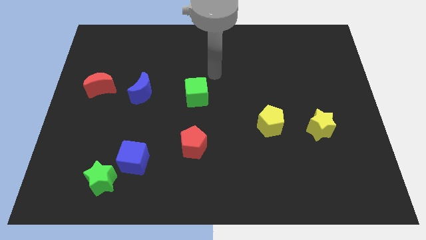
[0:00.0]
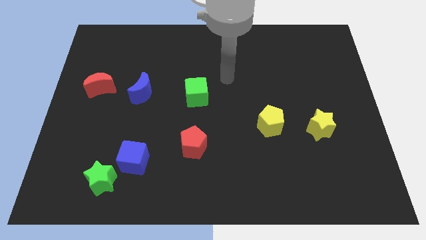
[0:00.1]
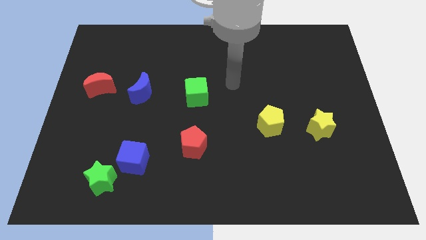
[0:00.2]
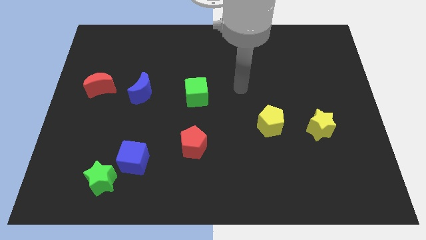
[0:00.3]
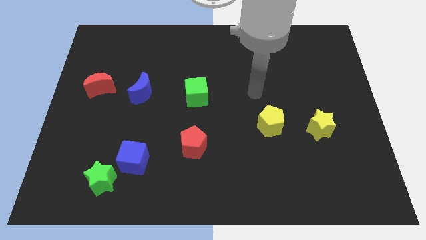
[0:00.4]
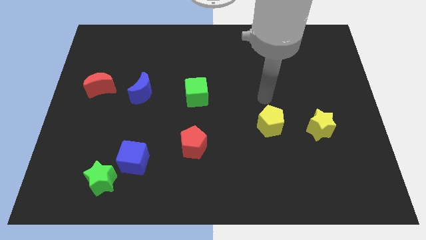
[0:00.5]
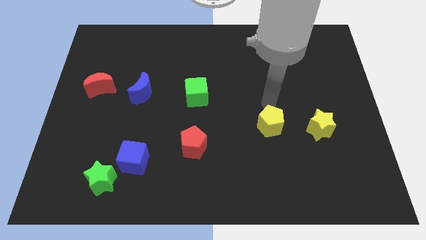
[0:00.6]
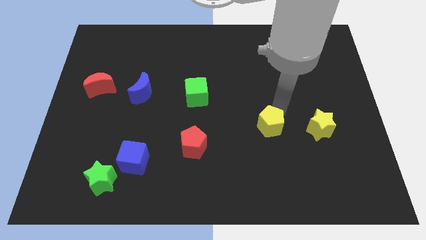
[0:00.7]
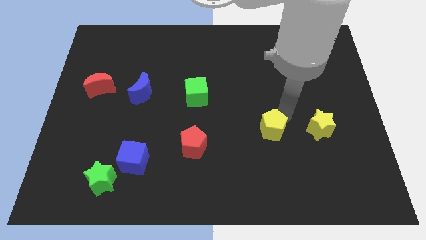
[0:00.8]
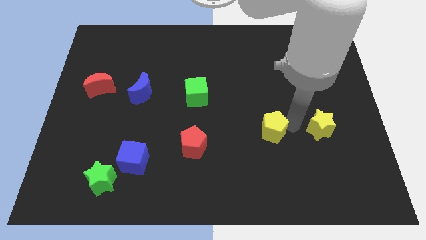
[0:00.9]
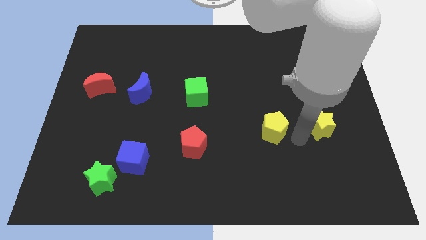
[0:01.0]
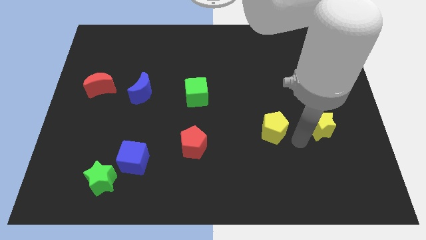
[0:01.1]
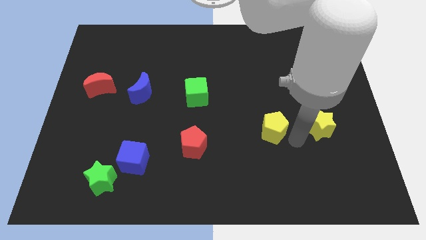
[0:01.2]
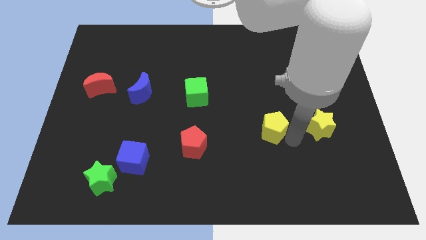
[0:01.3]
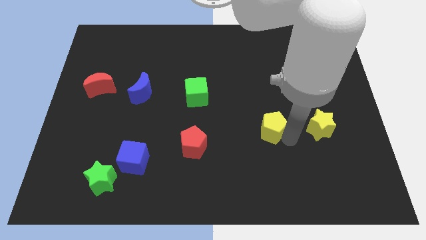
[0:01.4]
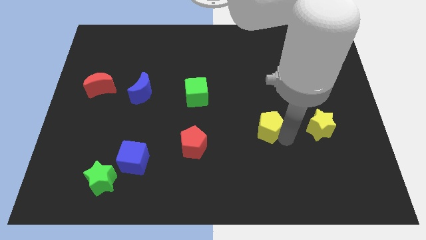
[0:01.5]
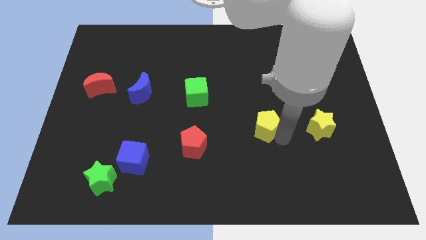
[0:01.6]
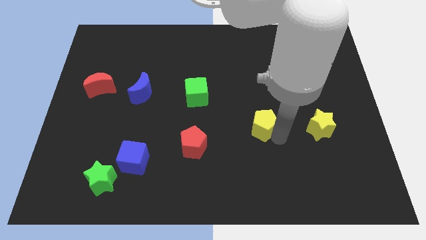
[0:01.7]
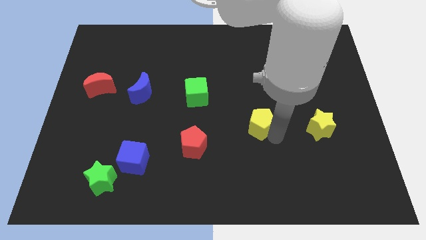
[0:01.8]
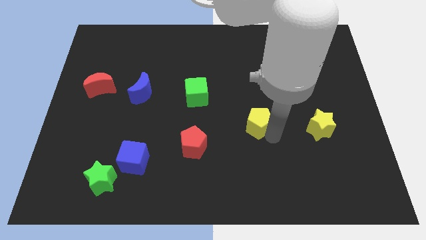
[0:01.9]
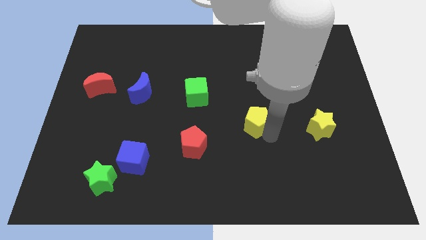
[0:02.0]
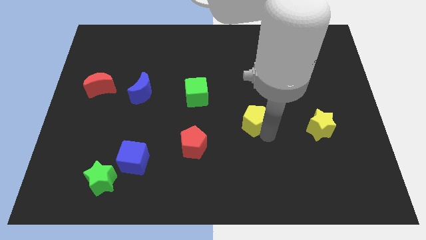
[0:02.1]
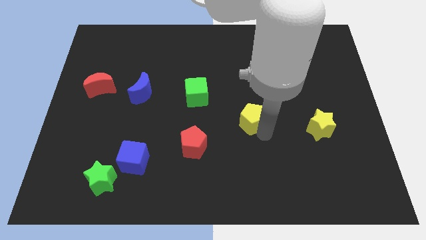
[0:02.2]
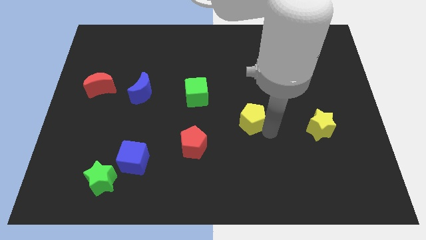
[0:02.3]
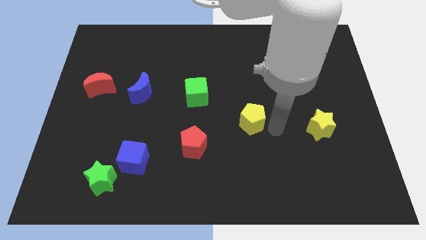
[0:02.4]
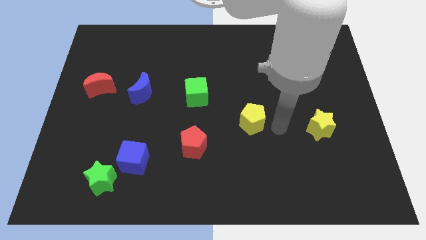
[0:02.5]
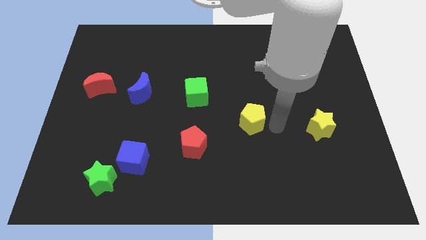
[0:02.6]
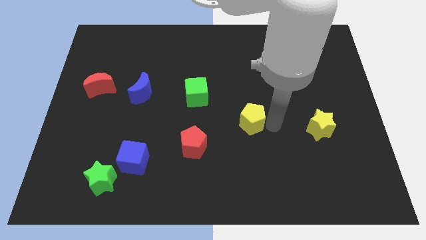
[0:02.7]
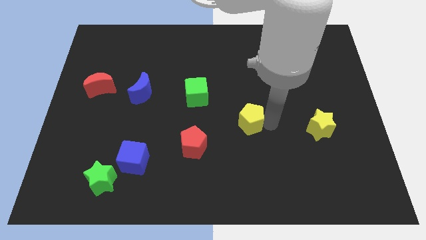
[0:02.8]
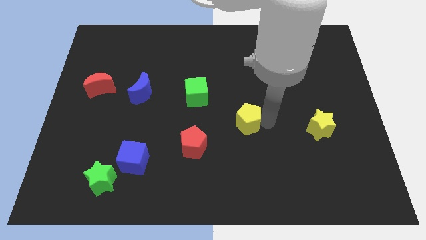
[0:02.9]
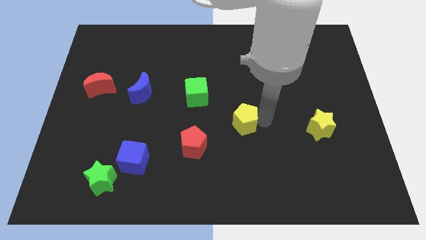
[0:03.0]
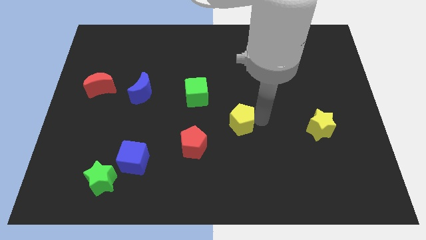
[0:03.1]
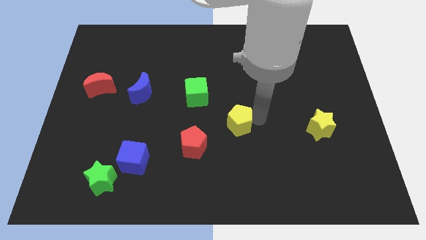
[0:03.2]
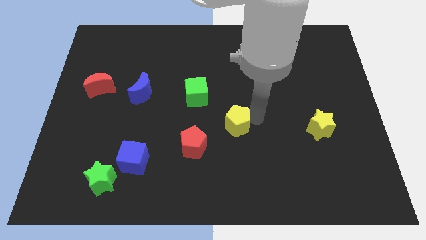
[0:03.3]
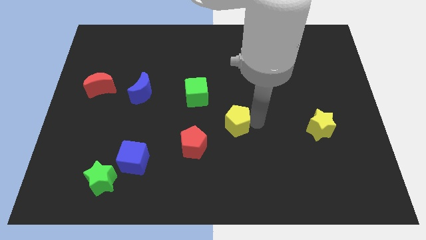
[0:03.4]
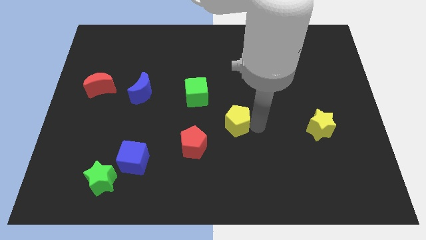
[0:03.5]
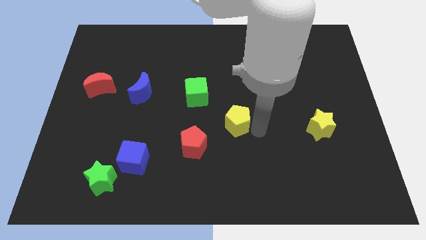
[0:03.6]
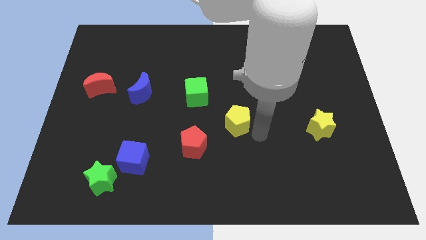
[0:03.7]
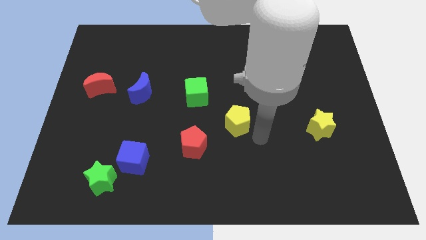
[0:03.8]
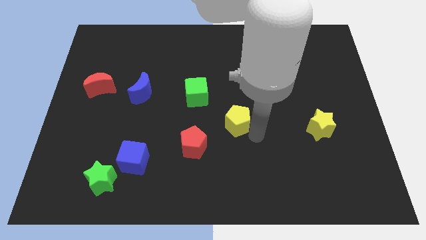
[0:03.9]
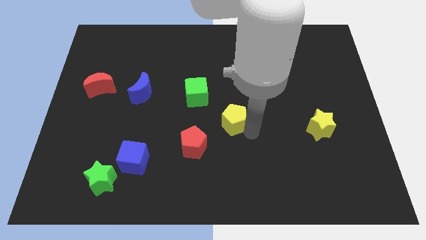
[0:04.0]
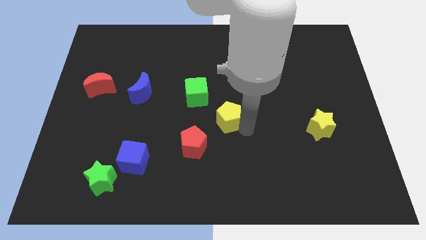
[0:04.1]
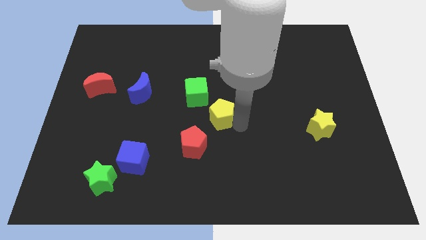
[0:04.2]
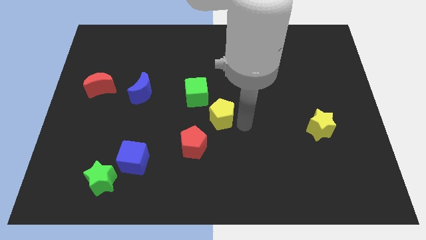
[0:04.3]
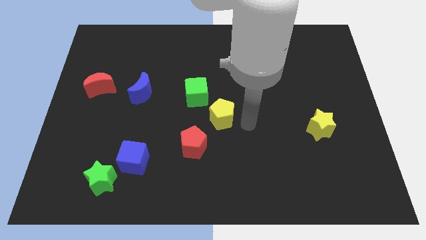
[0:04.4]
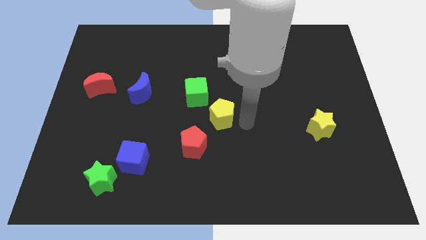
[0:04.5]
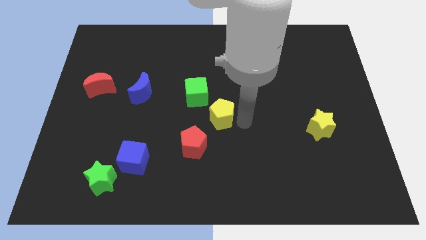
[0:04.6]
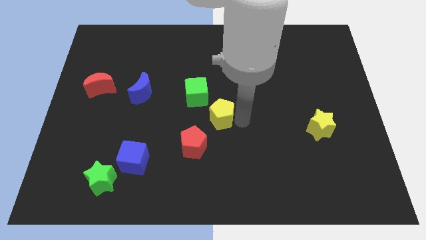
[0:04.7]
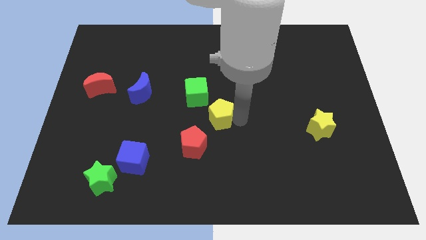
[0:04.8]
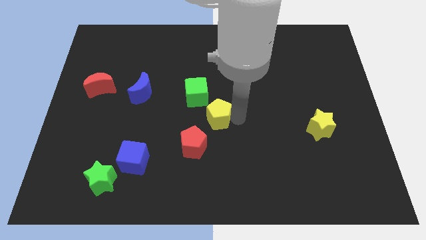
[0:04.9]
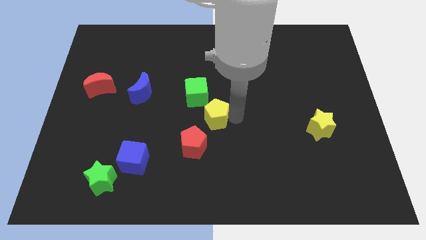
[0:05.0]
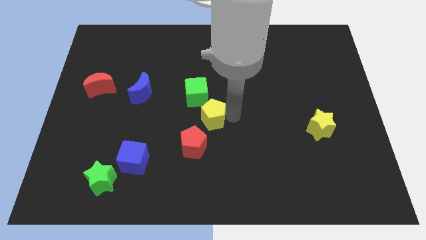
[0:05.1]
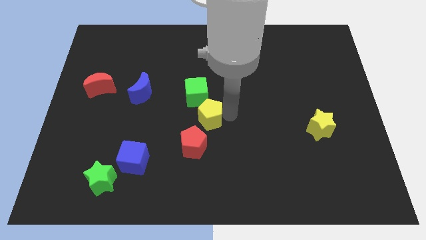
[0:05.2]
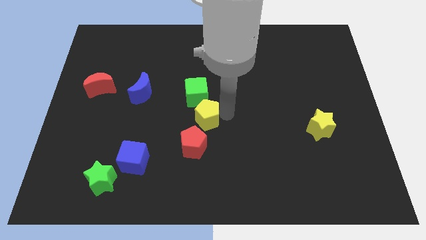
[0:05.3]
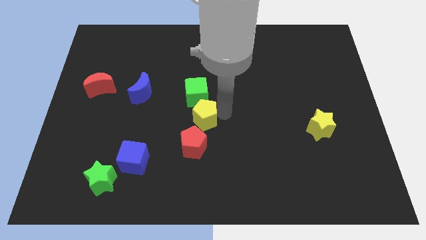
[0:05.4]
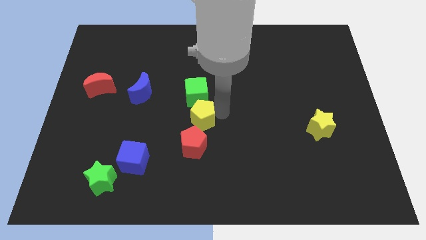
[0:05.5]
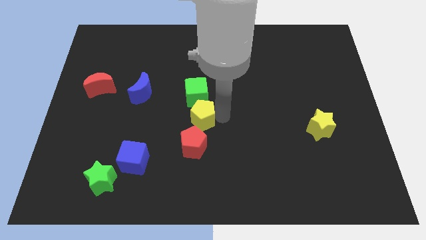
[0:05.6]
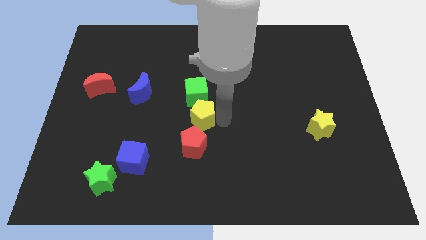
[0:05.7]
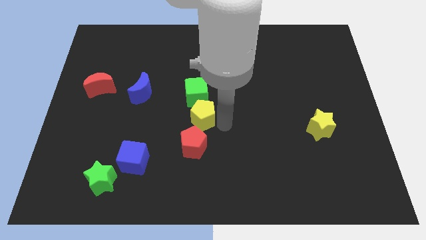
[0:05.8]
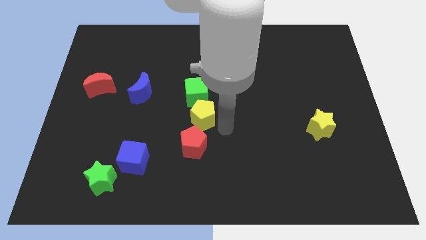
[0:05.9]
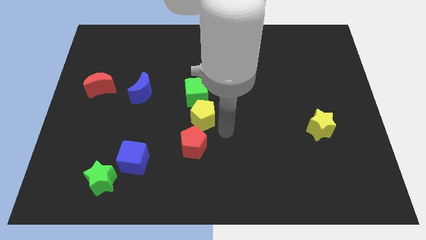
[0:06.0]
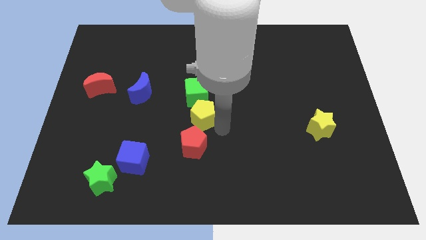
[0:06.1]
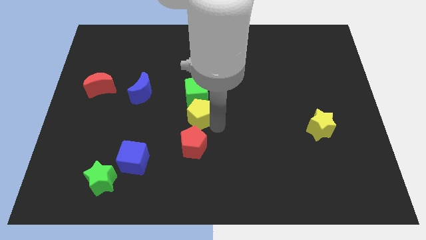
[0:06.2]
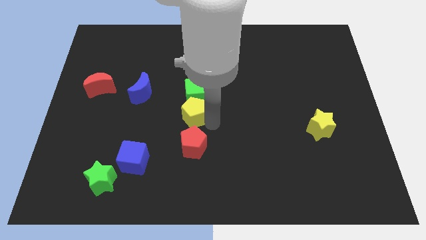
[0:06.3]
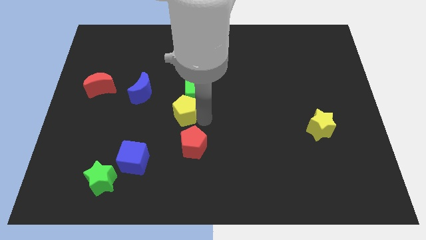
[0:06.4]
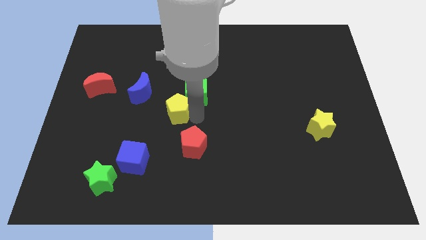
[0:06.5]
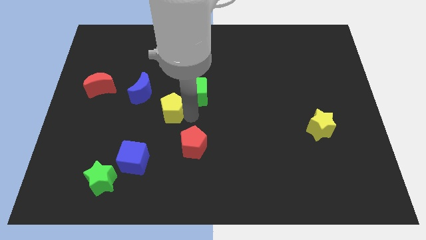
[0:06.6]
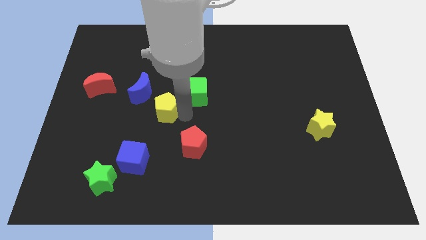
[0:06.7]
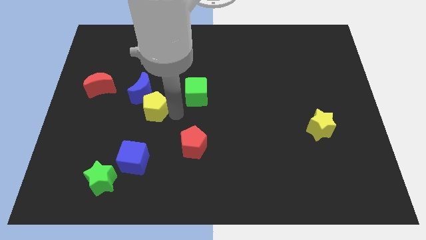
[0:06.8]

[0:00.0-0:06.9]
move the yellow pentagon towards the blue moon
